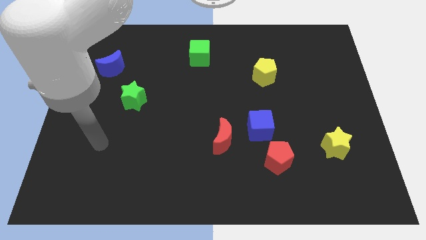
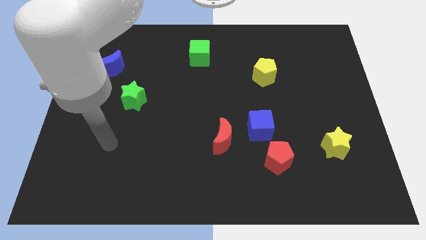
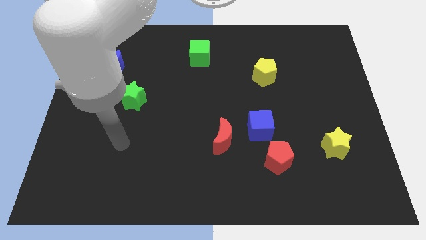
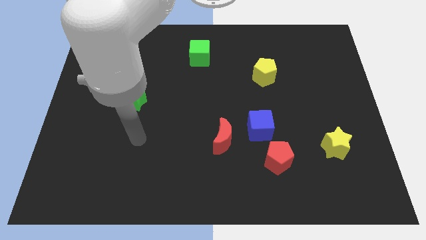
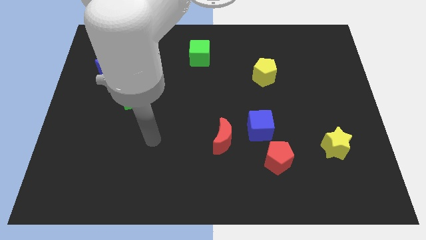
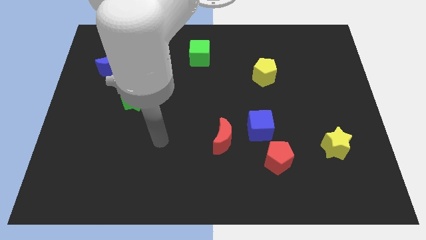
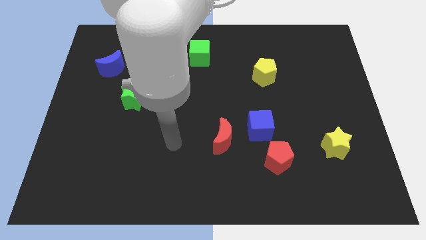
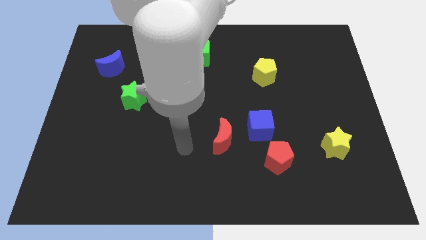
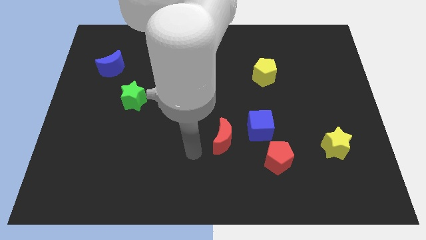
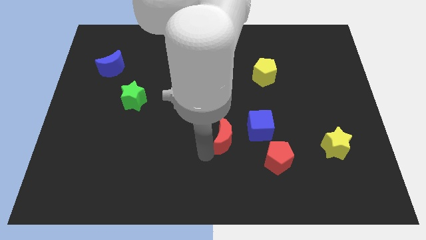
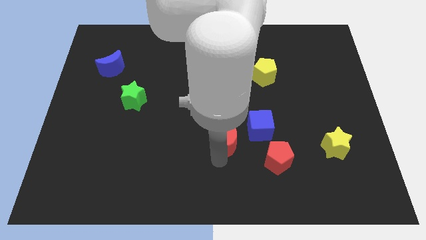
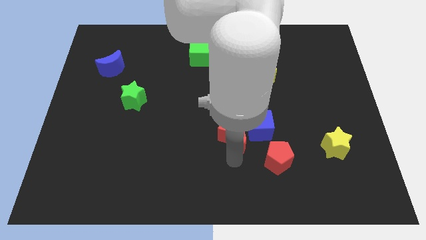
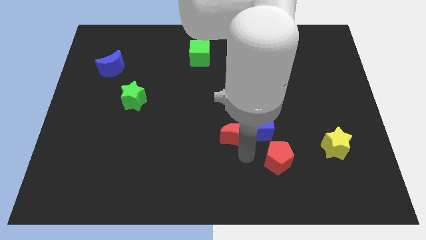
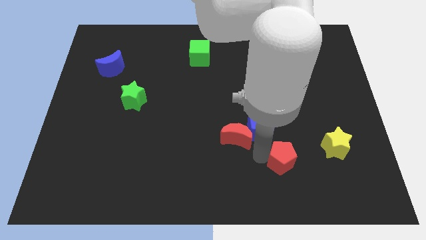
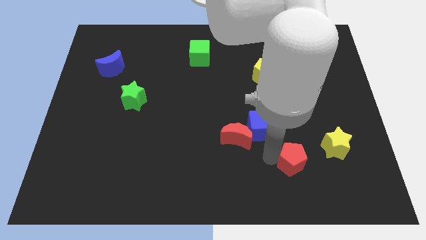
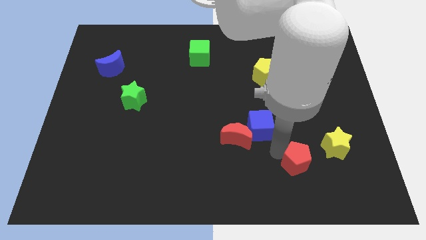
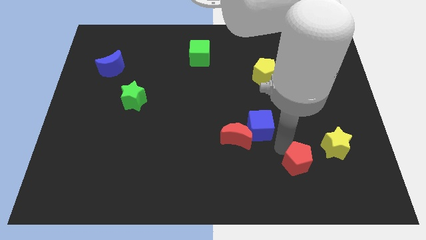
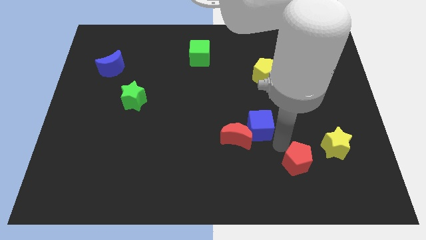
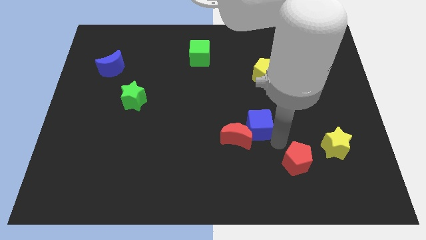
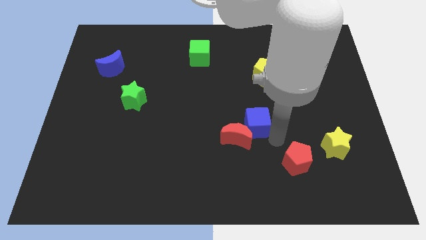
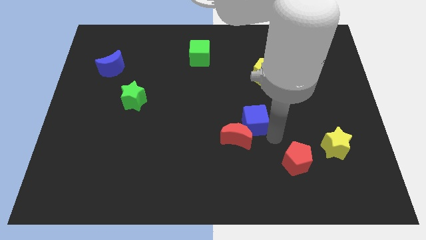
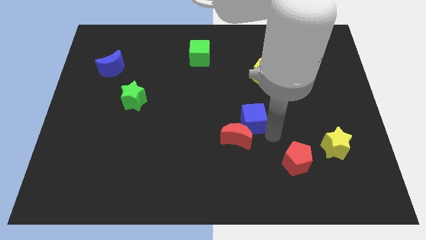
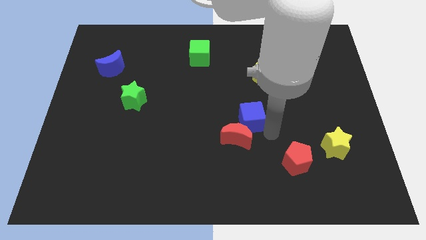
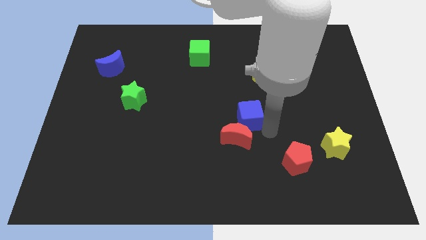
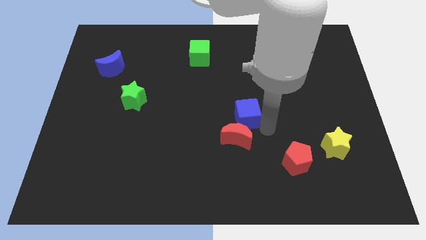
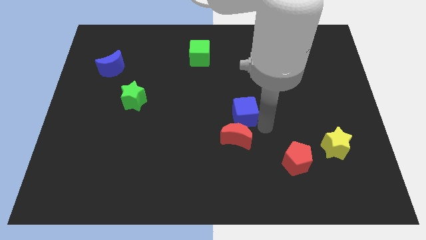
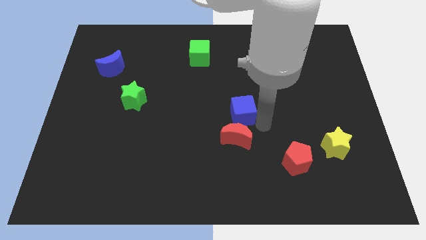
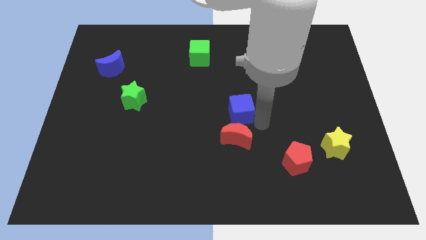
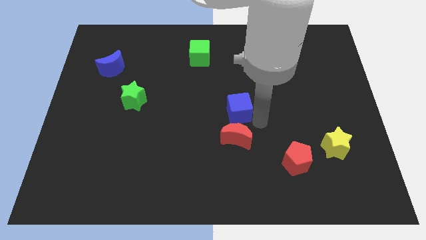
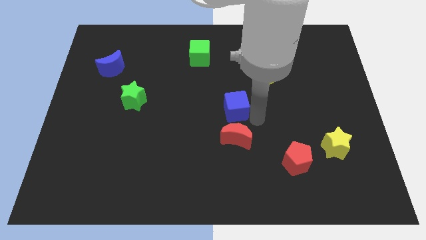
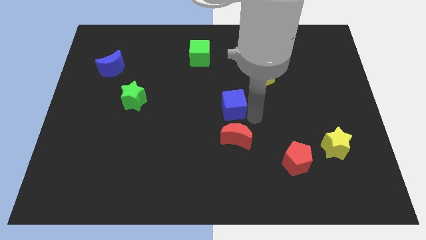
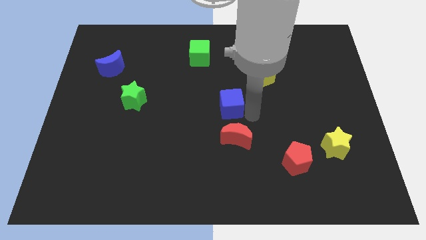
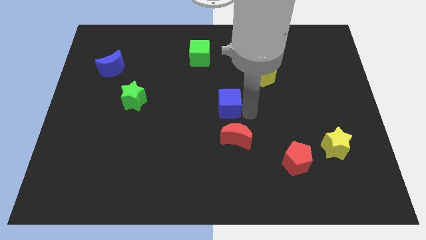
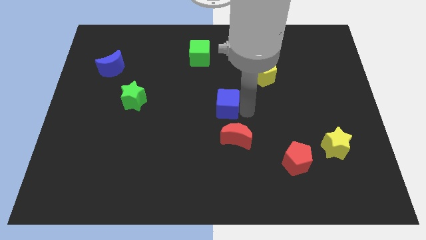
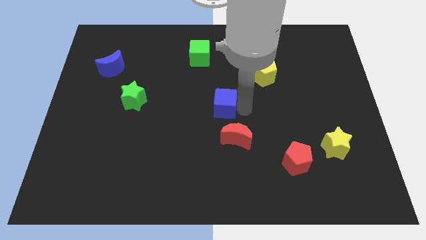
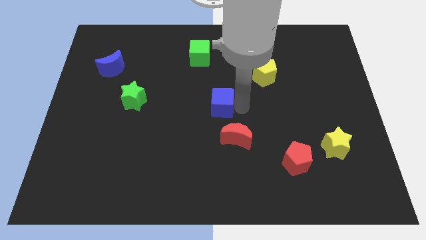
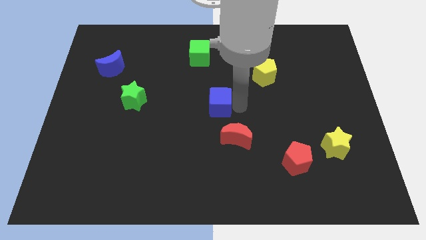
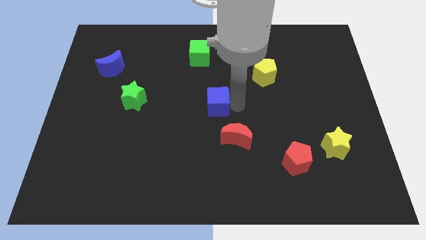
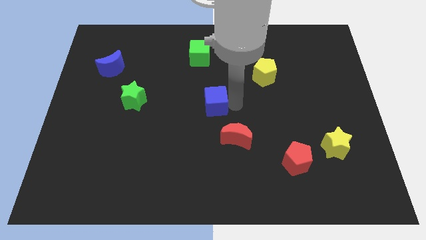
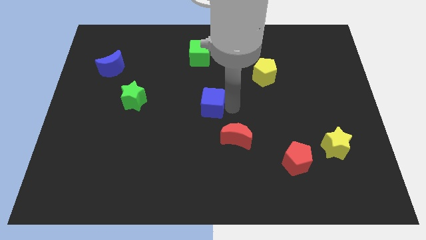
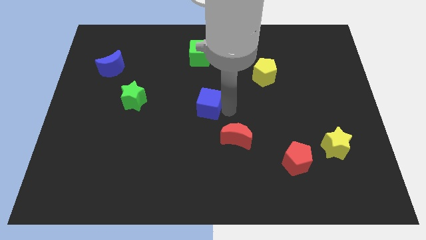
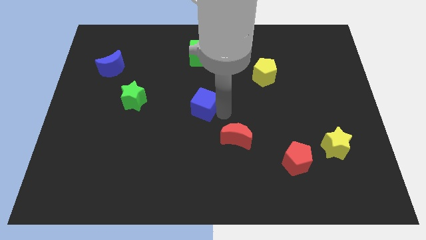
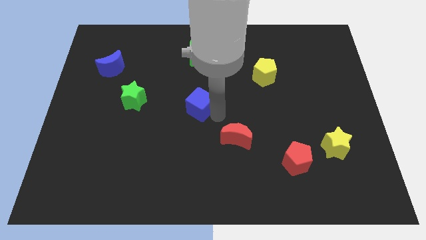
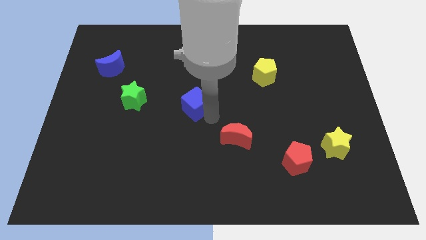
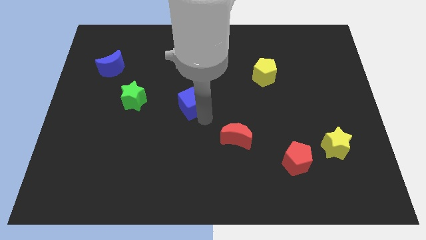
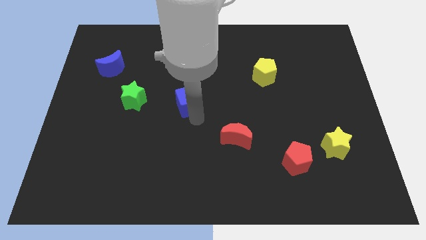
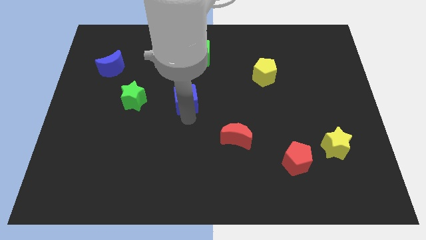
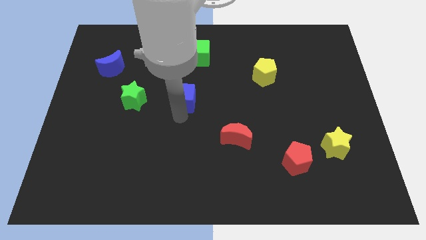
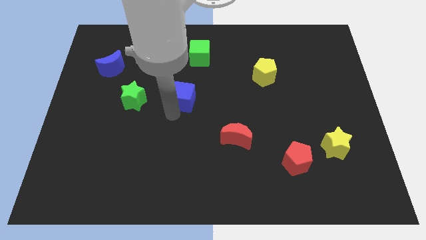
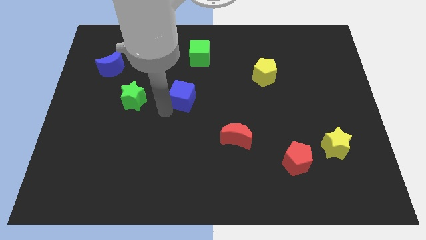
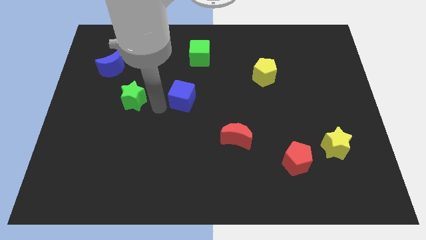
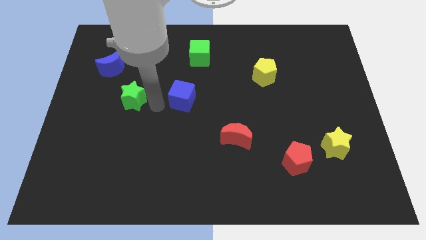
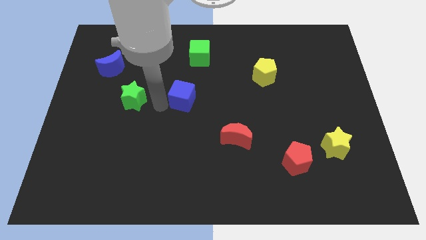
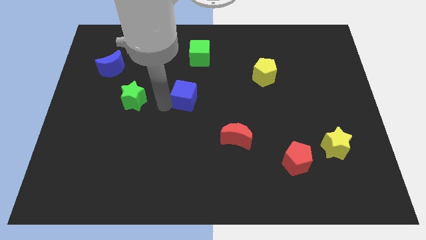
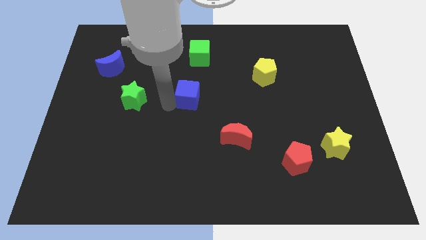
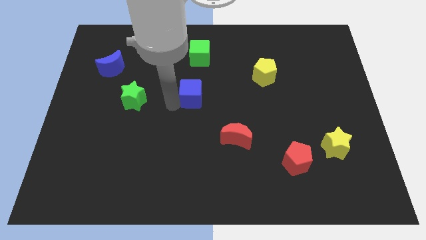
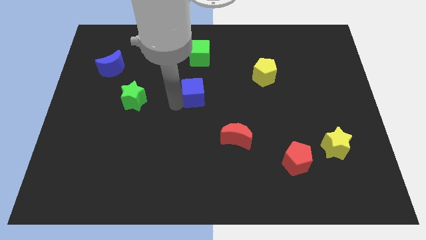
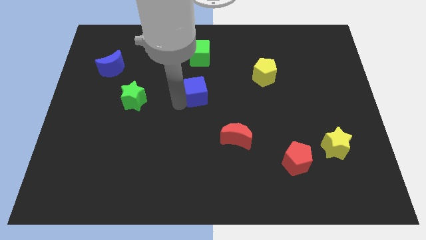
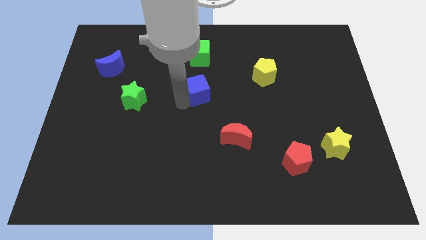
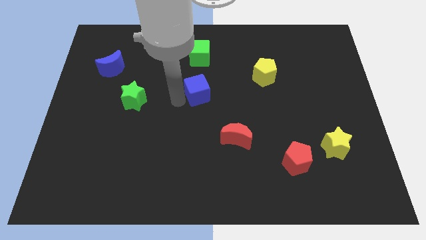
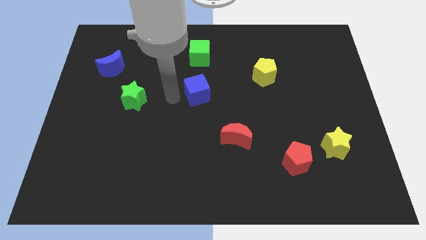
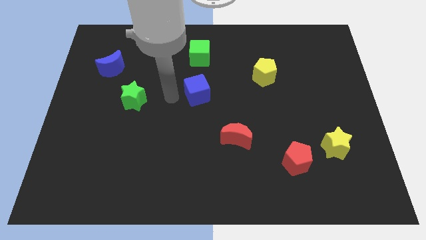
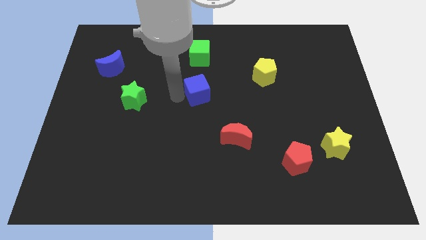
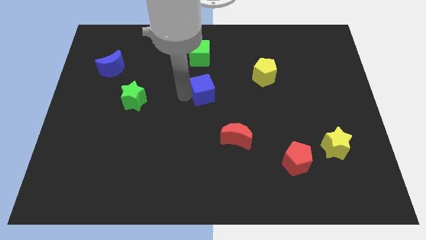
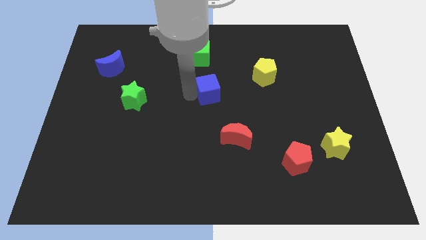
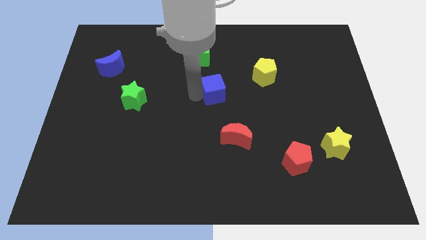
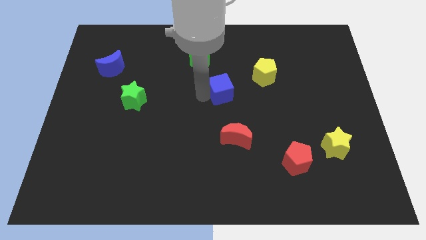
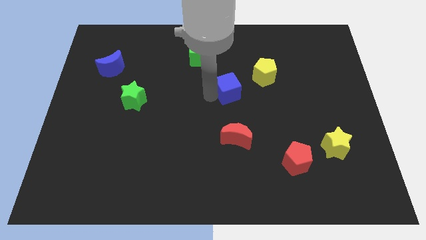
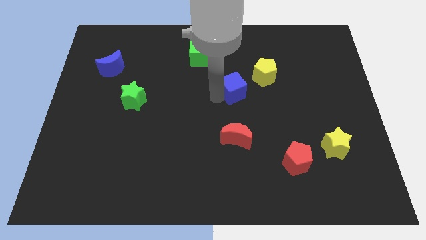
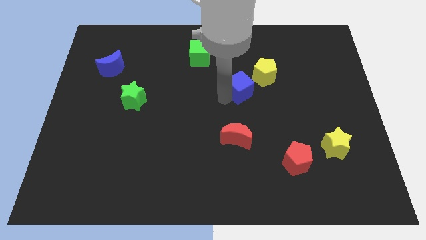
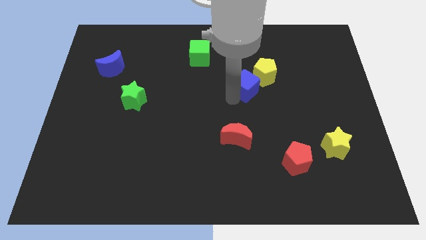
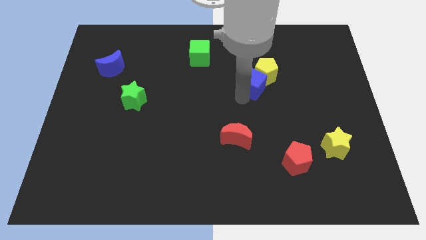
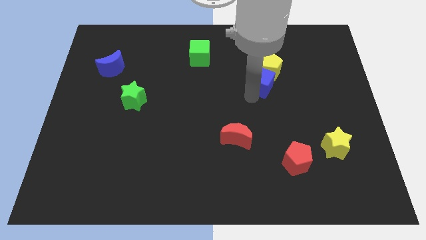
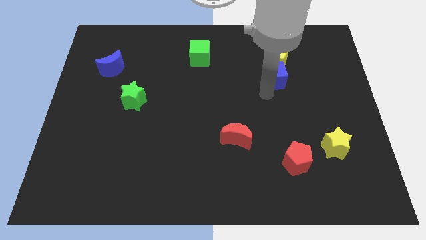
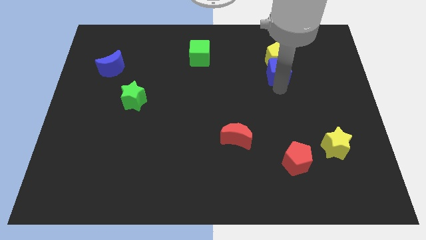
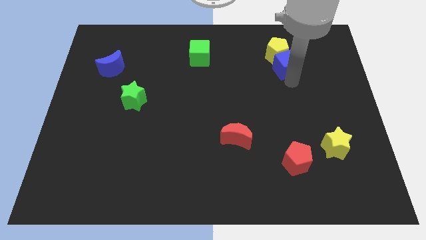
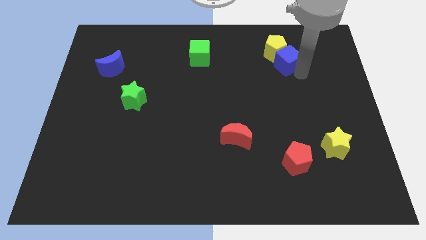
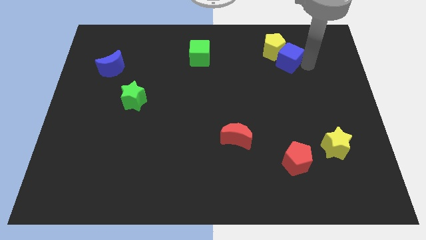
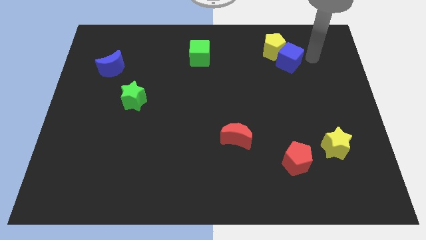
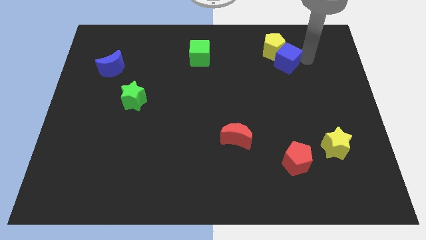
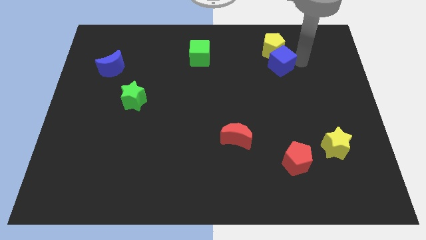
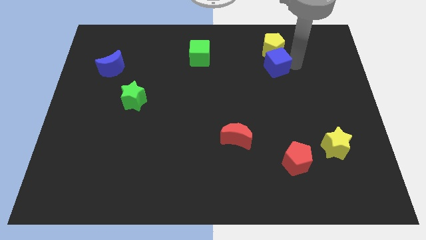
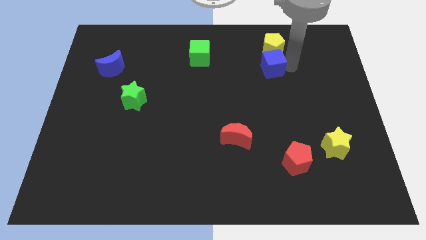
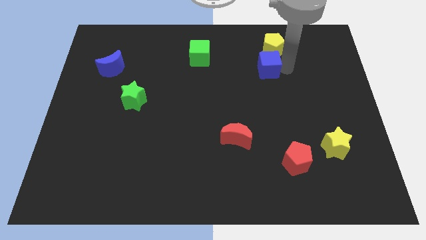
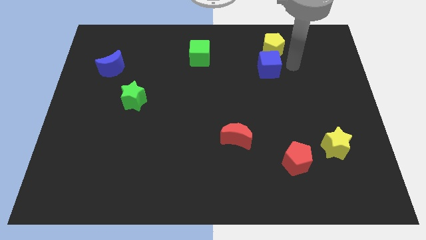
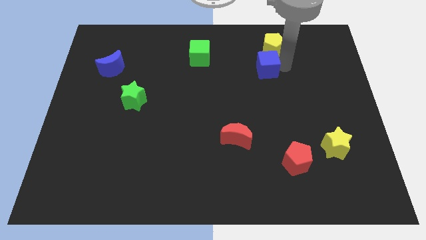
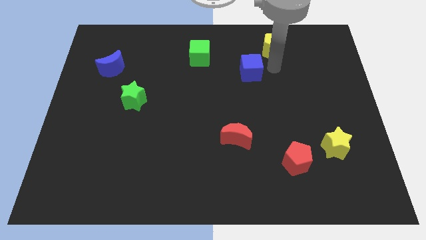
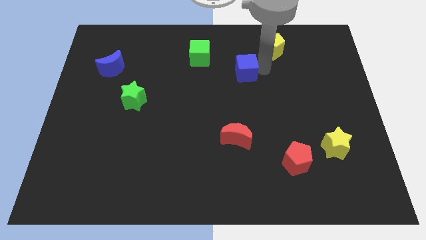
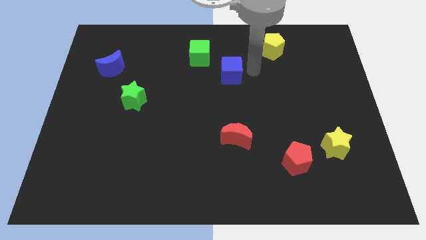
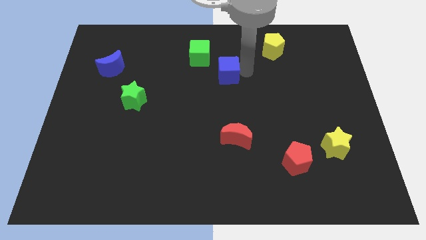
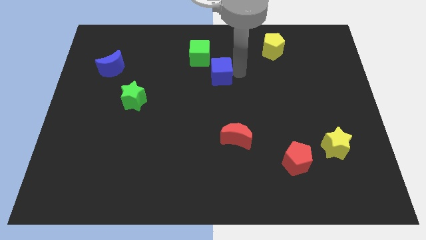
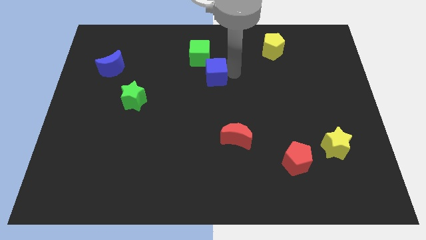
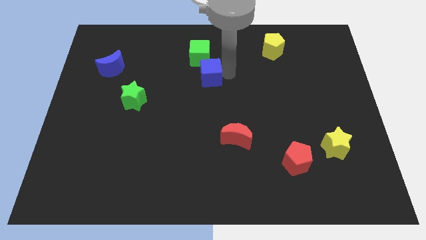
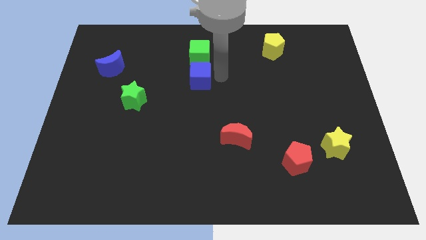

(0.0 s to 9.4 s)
move the blue cube diagonally upwards and left
